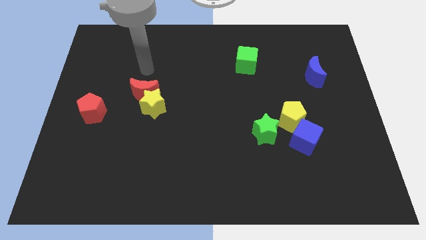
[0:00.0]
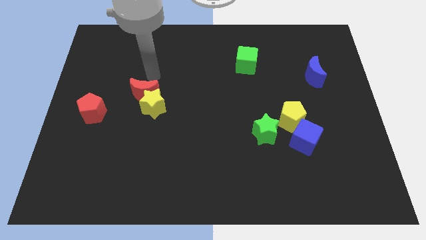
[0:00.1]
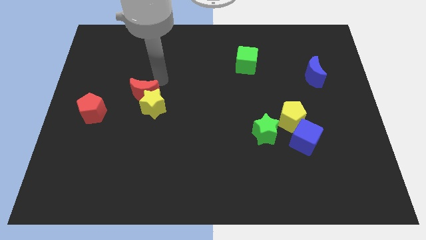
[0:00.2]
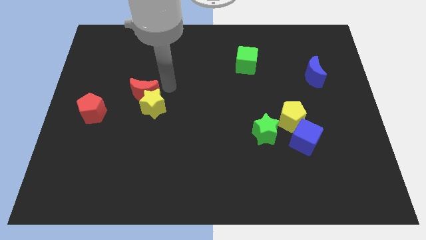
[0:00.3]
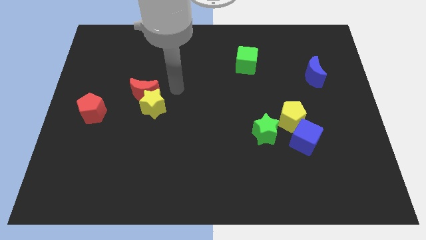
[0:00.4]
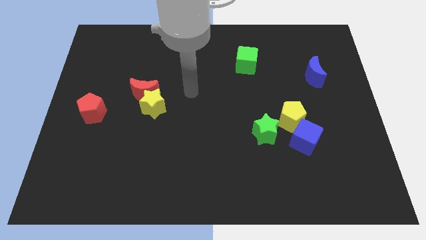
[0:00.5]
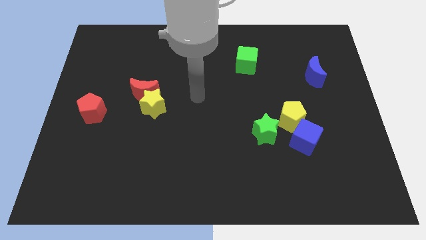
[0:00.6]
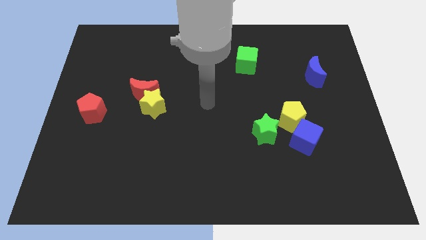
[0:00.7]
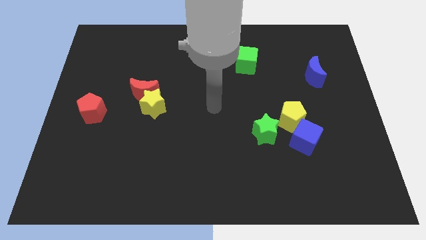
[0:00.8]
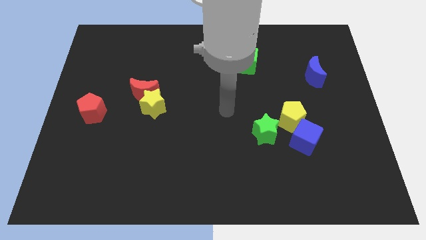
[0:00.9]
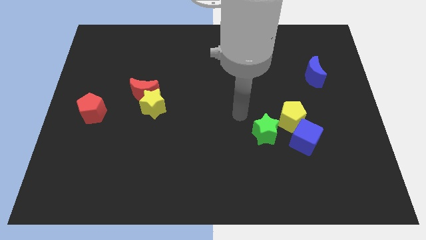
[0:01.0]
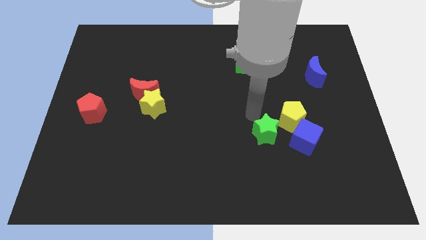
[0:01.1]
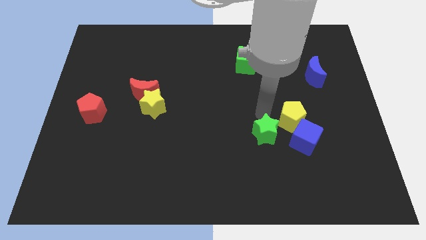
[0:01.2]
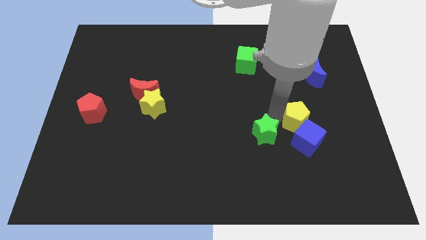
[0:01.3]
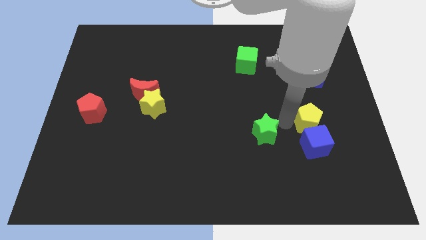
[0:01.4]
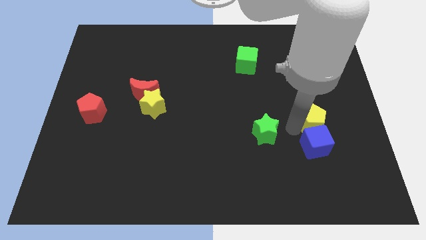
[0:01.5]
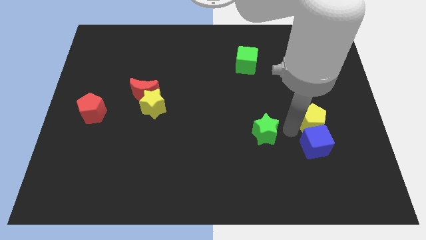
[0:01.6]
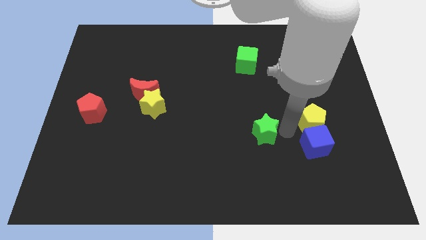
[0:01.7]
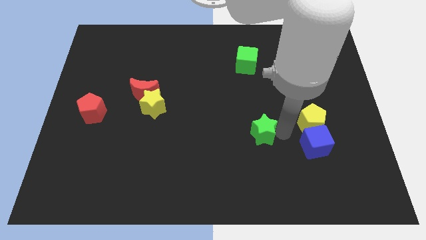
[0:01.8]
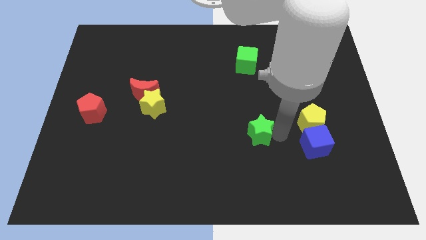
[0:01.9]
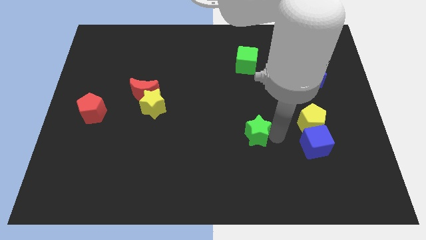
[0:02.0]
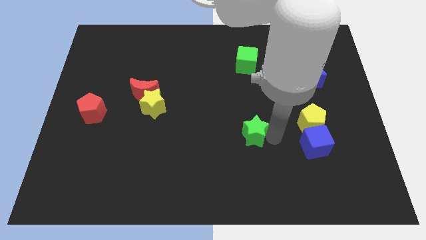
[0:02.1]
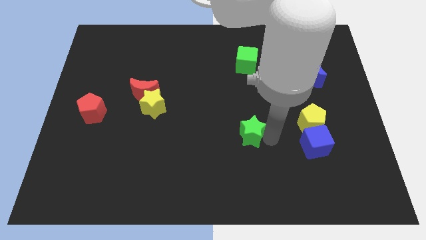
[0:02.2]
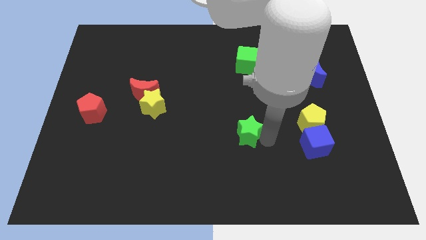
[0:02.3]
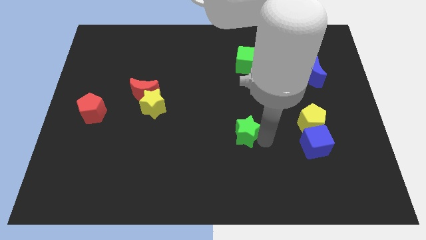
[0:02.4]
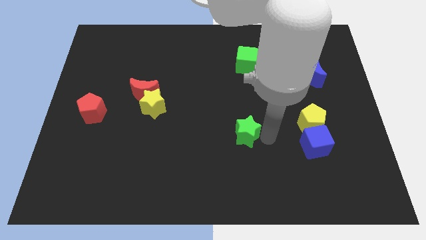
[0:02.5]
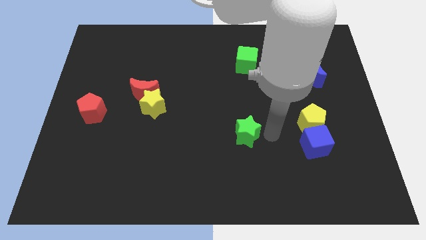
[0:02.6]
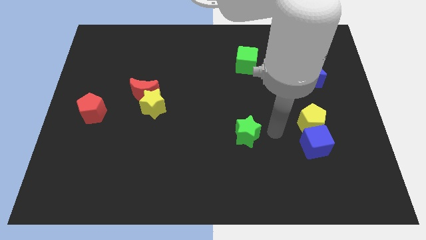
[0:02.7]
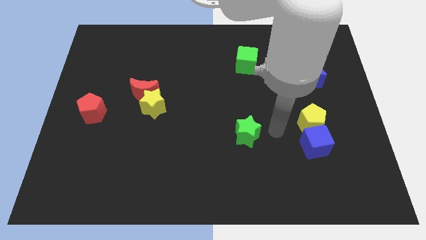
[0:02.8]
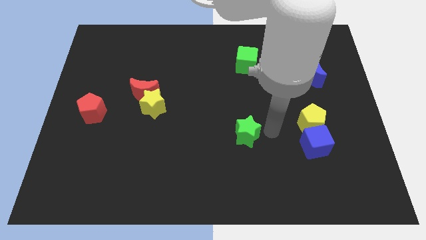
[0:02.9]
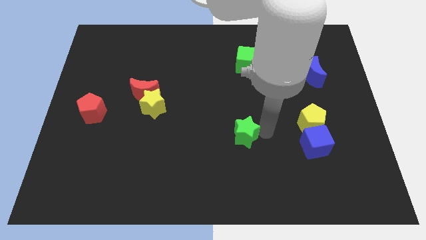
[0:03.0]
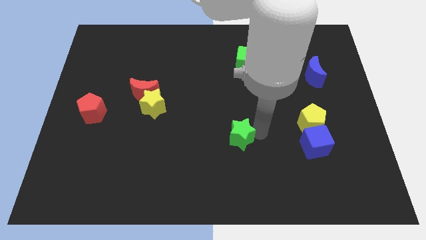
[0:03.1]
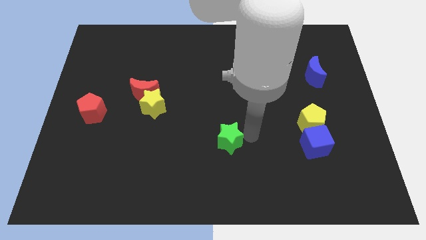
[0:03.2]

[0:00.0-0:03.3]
slide the green star a little bit left

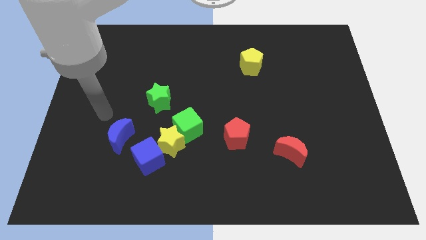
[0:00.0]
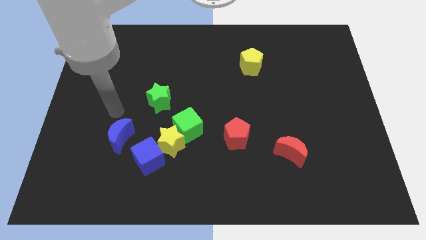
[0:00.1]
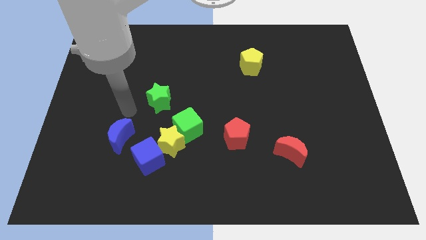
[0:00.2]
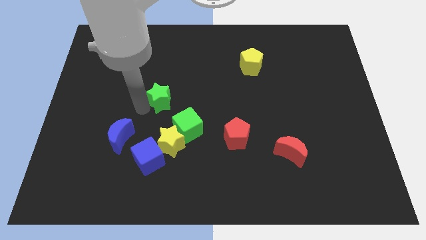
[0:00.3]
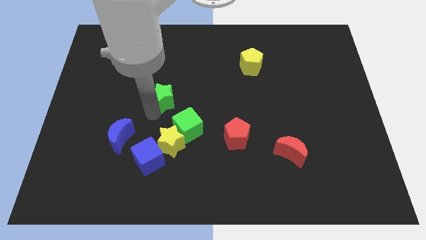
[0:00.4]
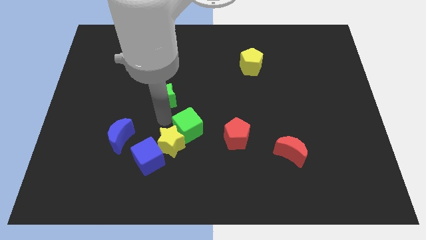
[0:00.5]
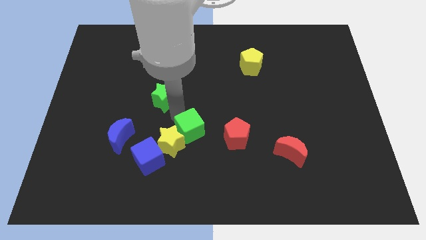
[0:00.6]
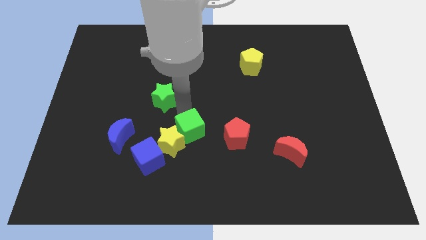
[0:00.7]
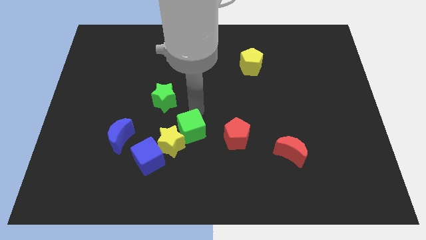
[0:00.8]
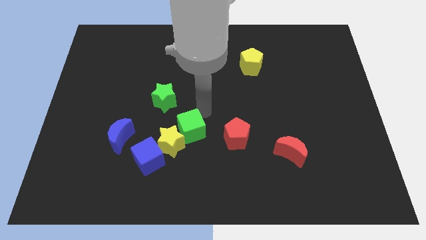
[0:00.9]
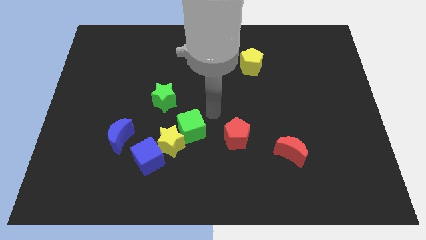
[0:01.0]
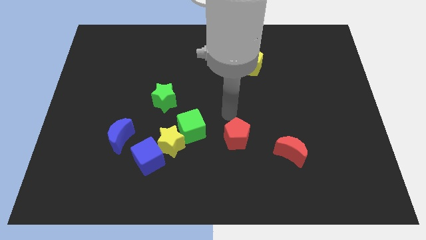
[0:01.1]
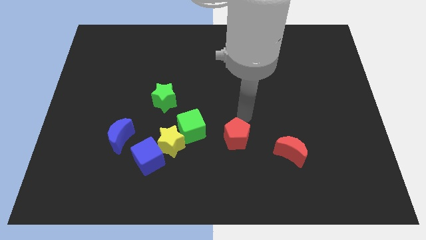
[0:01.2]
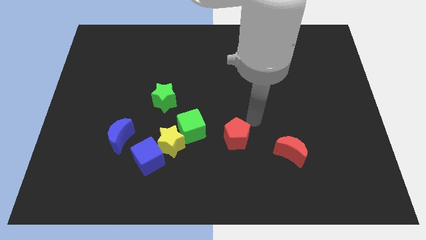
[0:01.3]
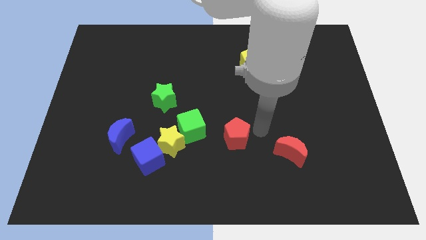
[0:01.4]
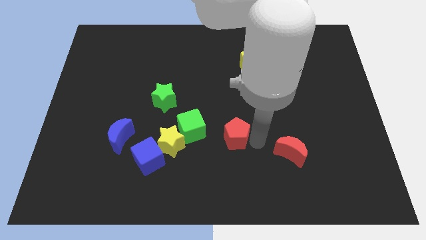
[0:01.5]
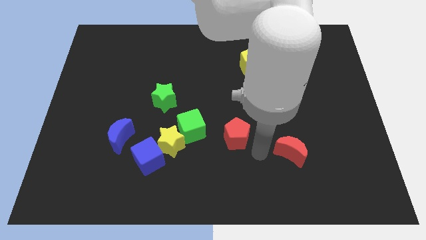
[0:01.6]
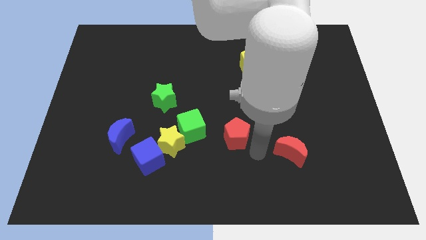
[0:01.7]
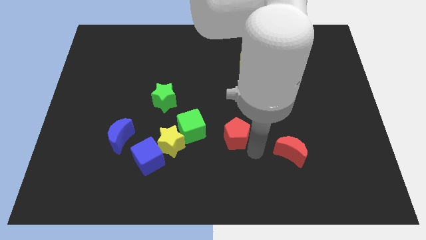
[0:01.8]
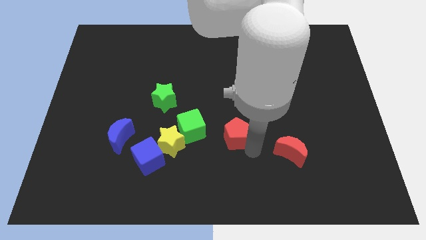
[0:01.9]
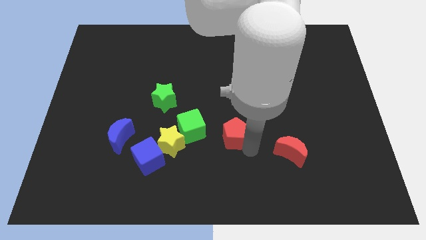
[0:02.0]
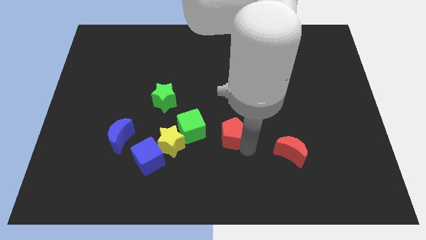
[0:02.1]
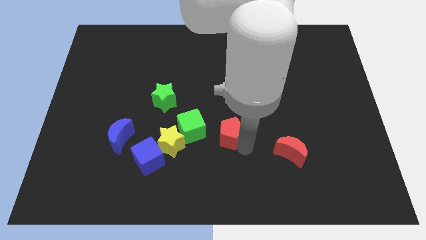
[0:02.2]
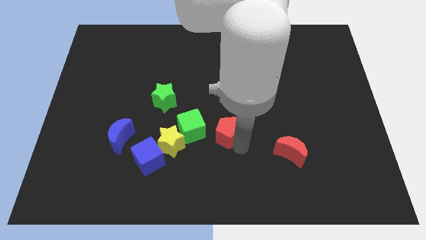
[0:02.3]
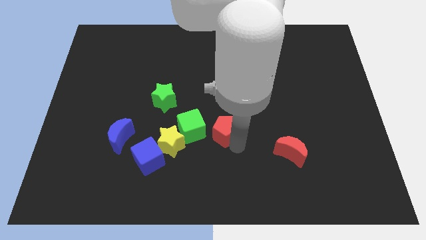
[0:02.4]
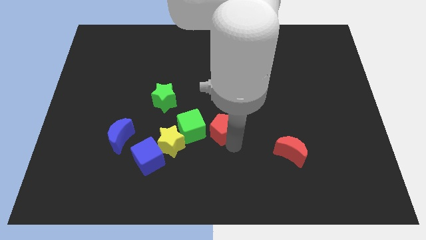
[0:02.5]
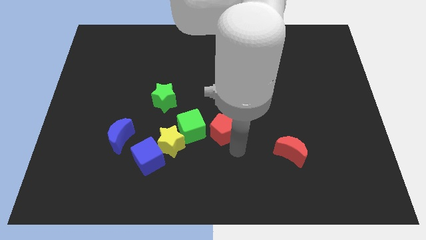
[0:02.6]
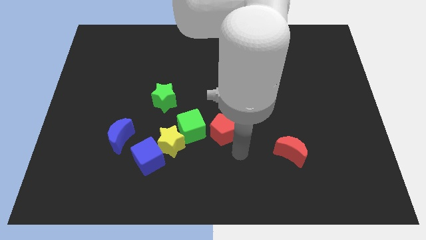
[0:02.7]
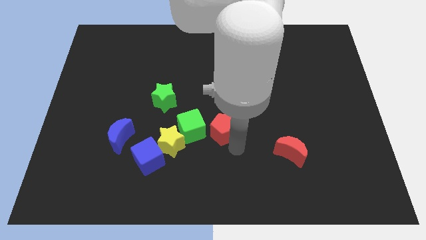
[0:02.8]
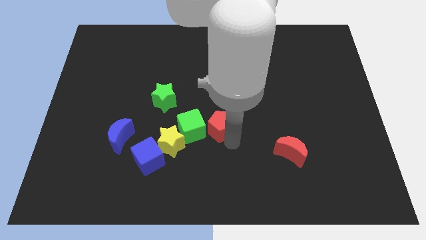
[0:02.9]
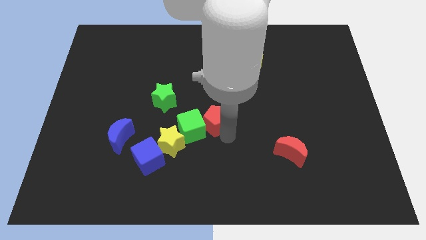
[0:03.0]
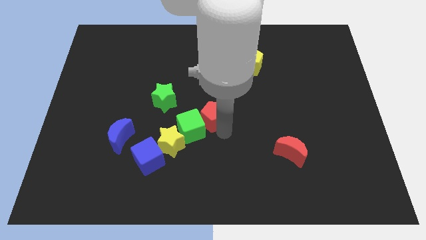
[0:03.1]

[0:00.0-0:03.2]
move the red pentagon a little upwards and left diagonally

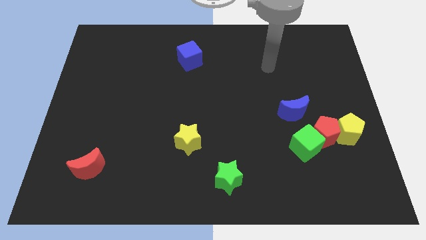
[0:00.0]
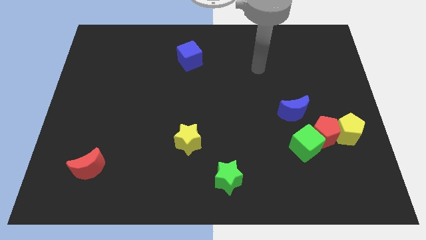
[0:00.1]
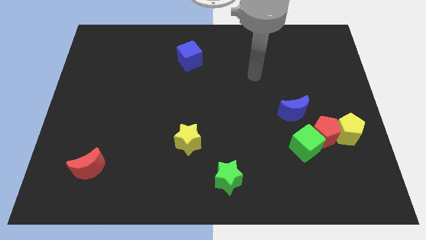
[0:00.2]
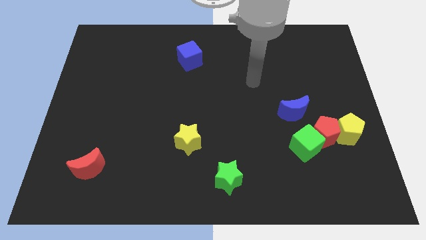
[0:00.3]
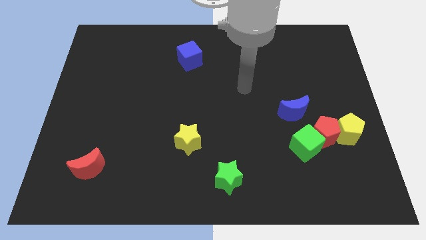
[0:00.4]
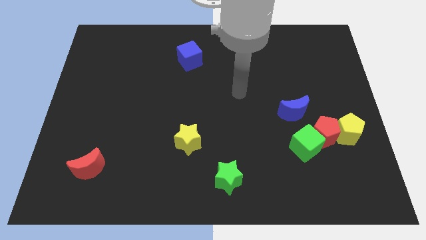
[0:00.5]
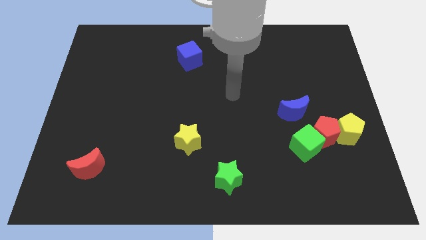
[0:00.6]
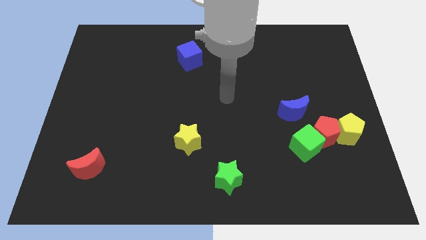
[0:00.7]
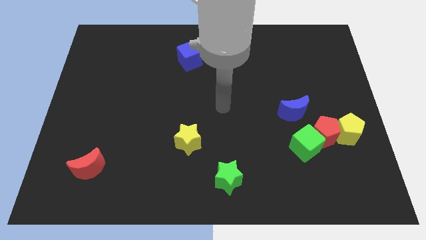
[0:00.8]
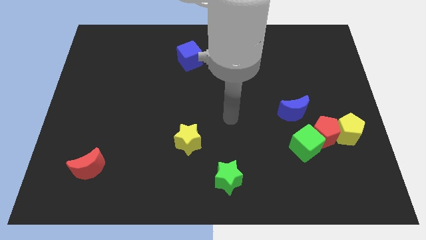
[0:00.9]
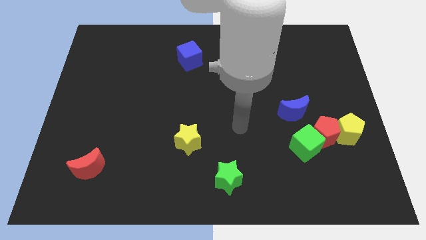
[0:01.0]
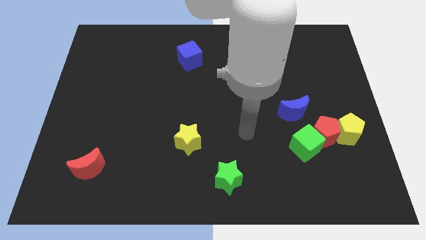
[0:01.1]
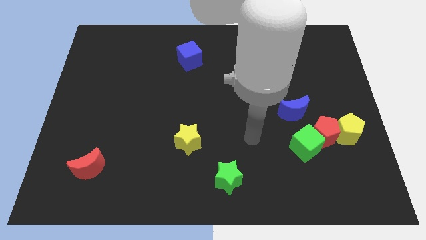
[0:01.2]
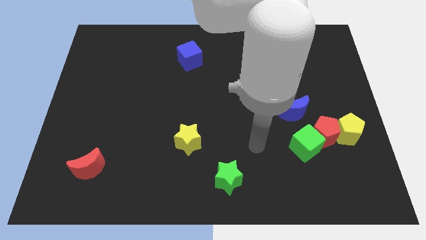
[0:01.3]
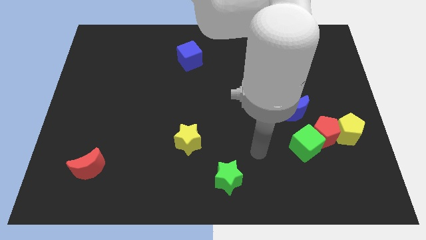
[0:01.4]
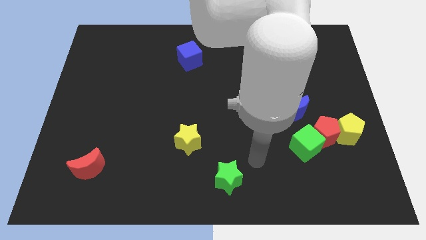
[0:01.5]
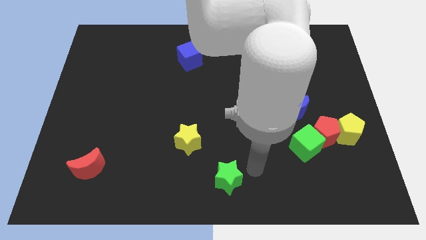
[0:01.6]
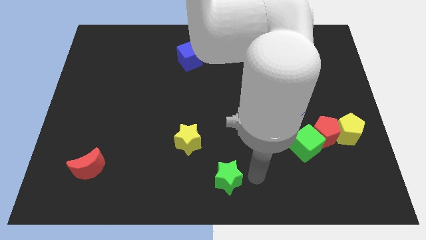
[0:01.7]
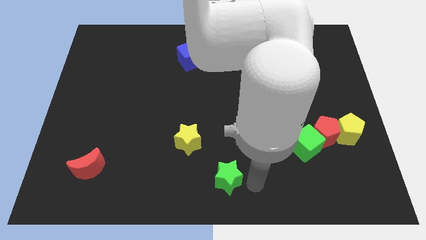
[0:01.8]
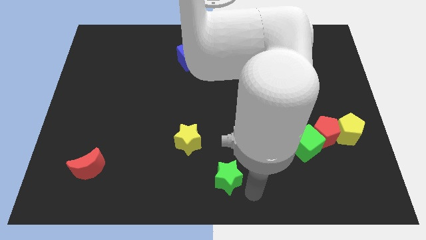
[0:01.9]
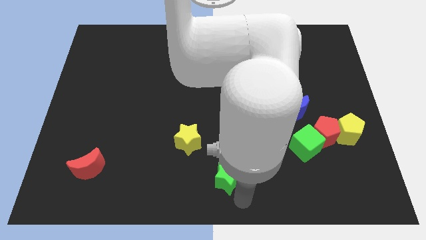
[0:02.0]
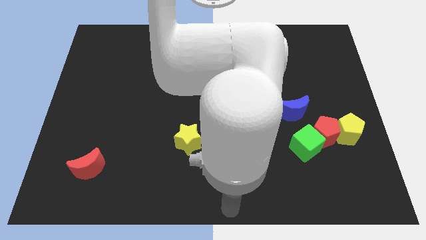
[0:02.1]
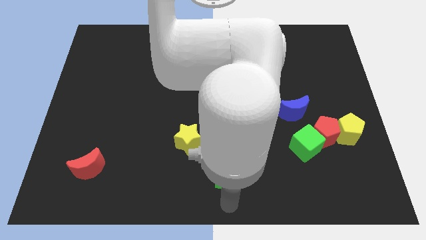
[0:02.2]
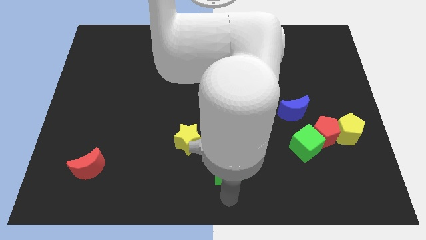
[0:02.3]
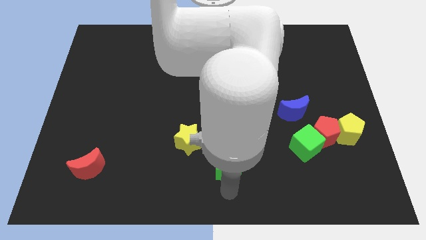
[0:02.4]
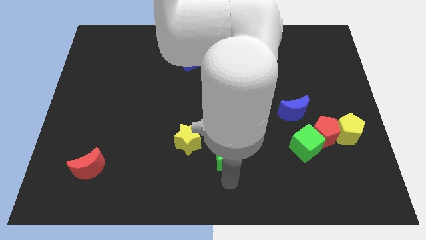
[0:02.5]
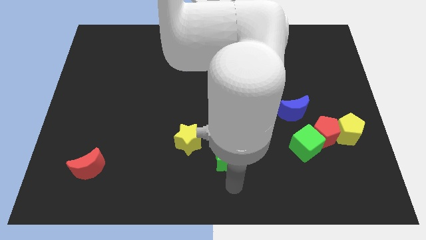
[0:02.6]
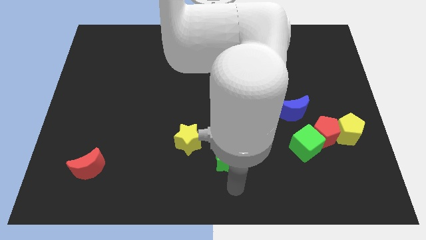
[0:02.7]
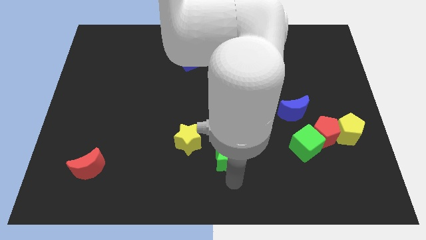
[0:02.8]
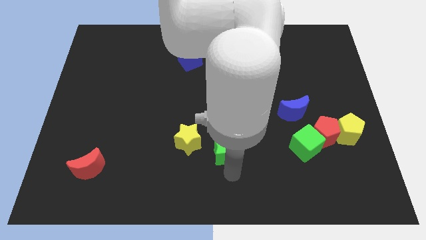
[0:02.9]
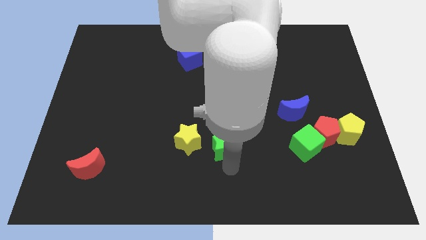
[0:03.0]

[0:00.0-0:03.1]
slightly push the green star up
